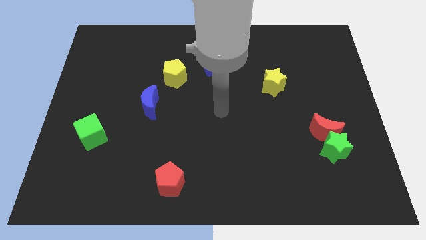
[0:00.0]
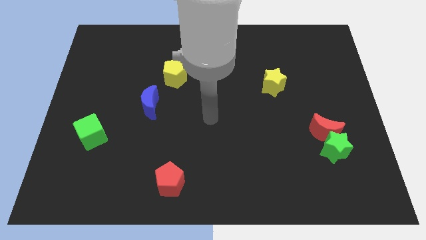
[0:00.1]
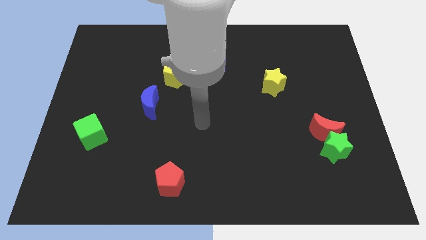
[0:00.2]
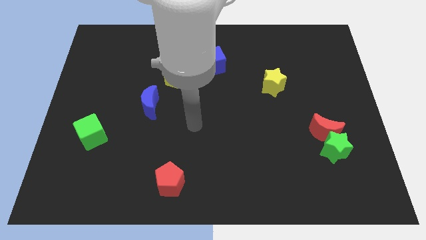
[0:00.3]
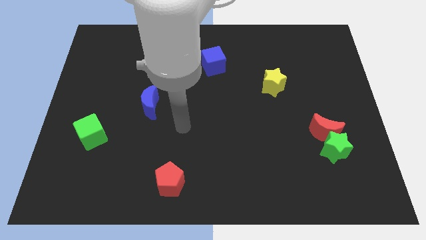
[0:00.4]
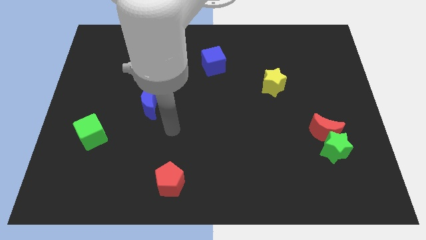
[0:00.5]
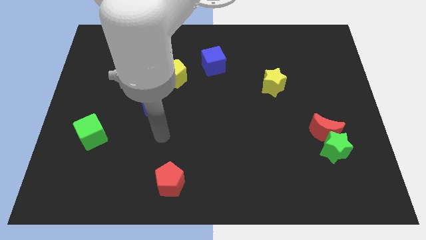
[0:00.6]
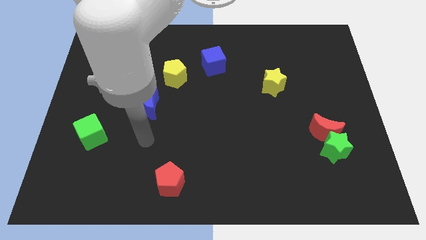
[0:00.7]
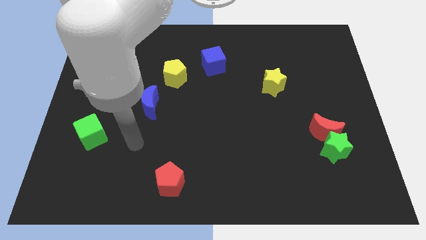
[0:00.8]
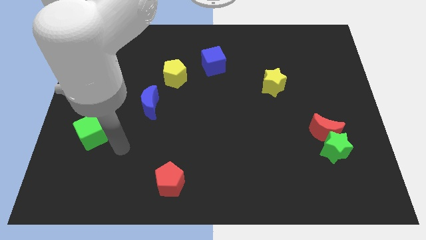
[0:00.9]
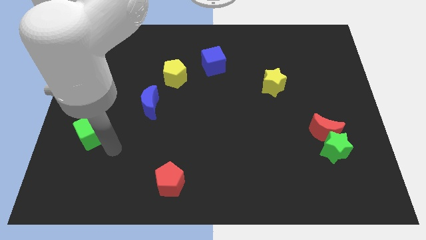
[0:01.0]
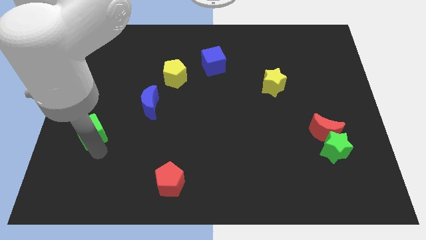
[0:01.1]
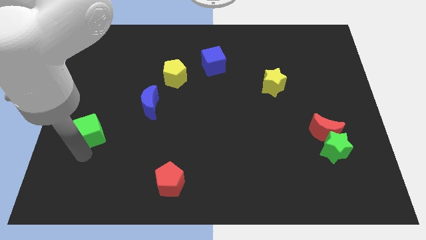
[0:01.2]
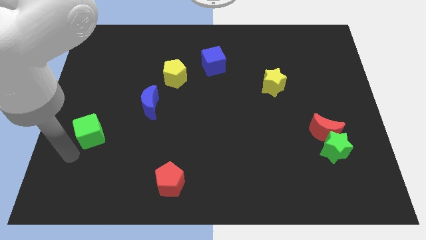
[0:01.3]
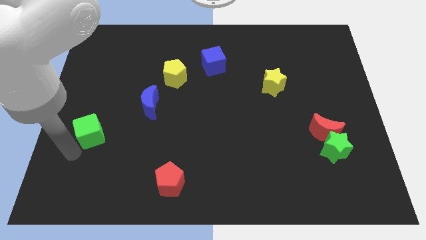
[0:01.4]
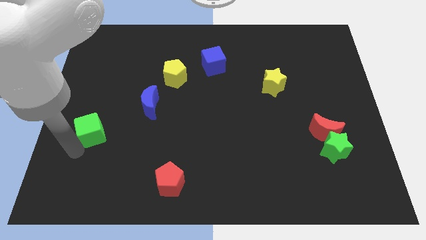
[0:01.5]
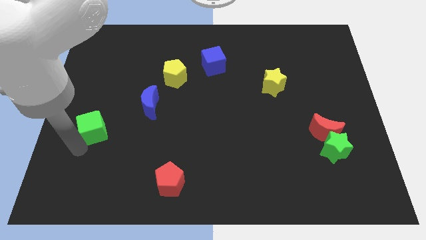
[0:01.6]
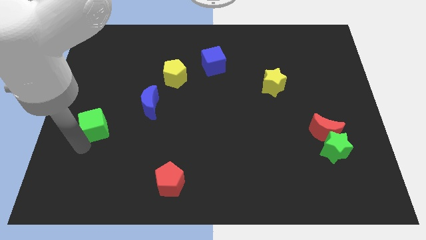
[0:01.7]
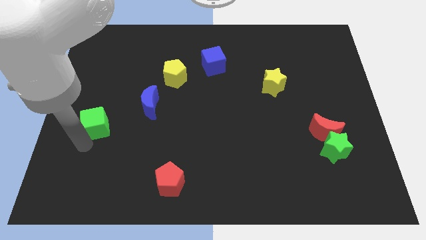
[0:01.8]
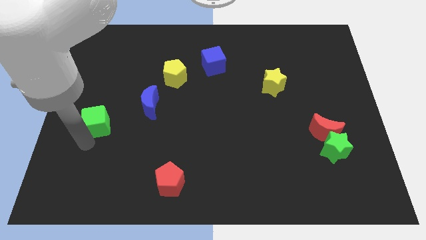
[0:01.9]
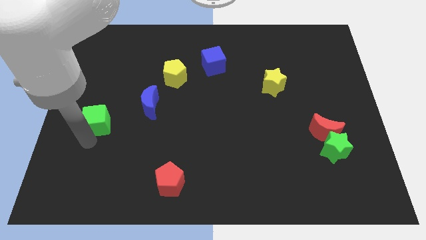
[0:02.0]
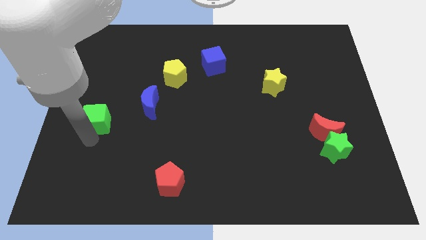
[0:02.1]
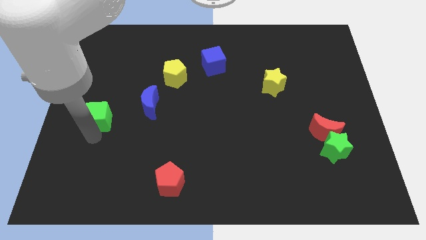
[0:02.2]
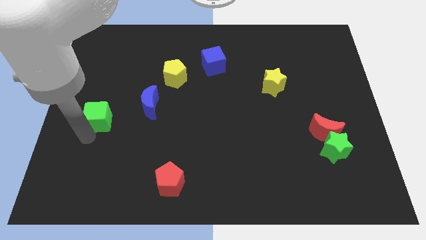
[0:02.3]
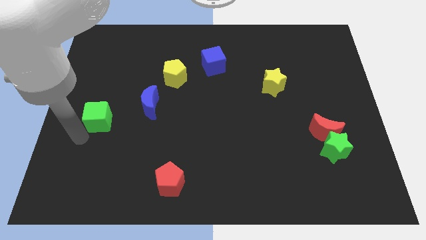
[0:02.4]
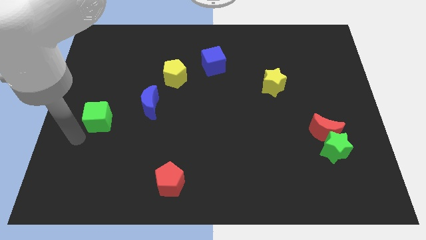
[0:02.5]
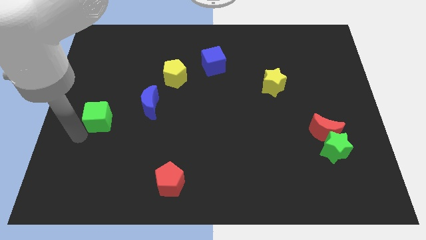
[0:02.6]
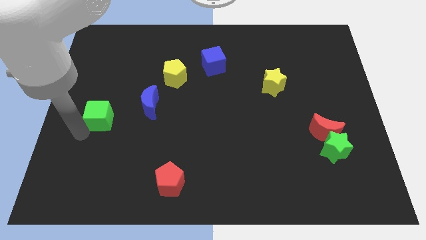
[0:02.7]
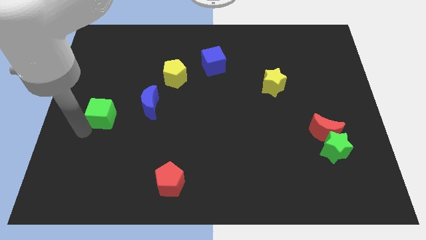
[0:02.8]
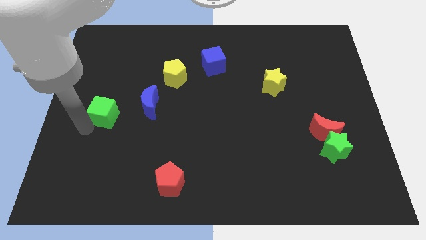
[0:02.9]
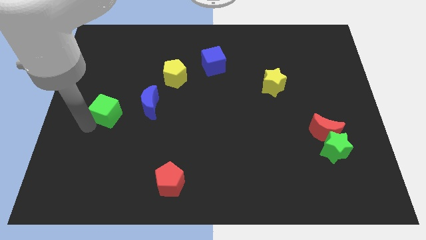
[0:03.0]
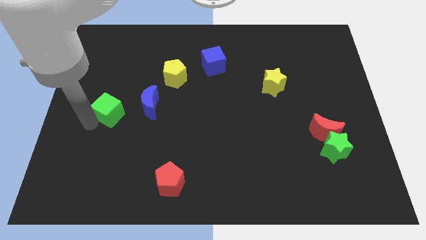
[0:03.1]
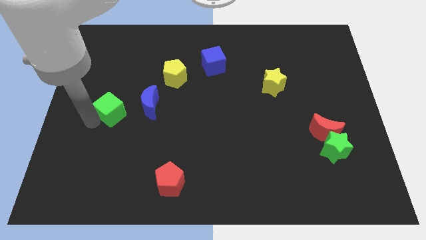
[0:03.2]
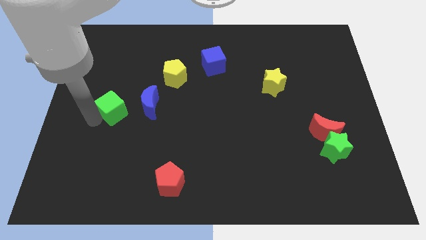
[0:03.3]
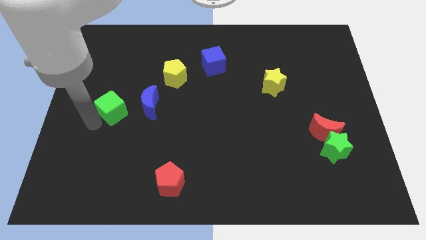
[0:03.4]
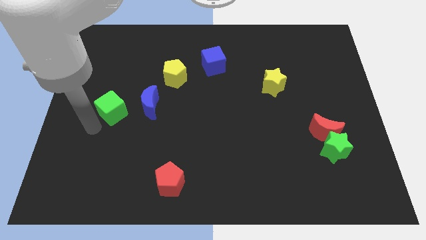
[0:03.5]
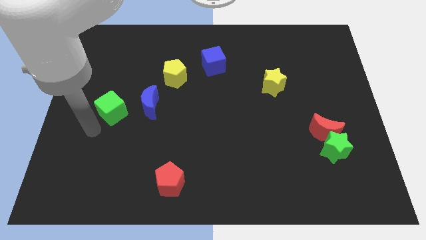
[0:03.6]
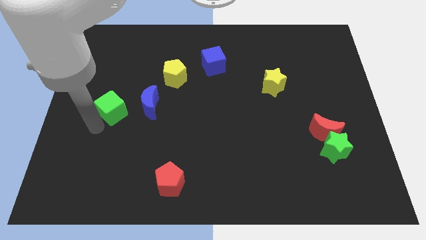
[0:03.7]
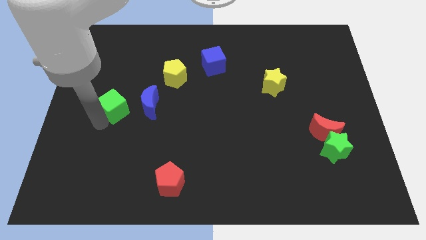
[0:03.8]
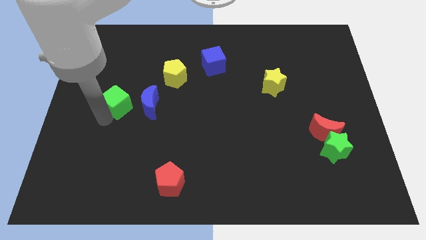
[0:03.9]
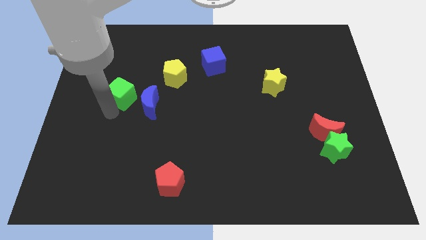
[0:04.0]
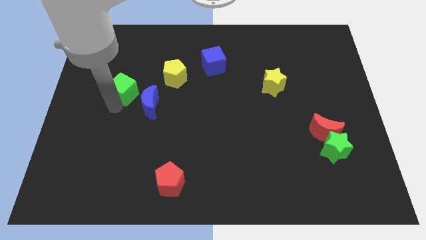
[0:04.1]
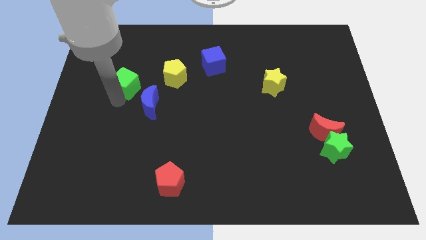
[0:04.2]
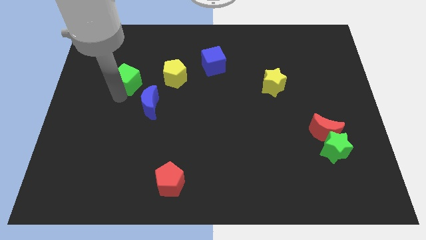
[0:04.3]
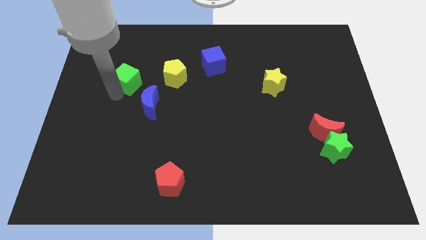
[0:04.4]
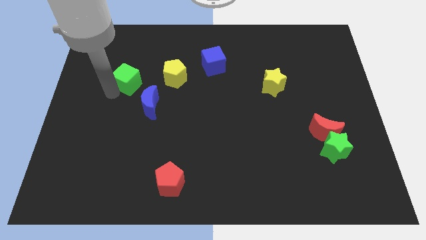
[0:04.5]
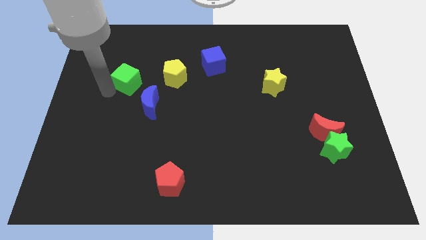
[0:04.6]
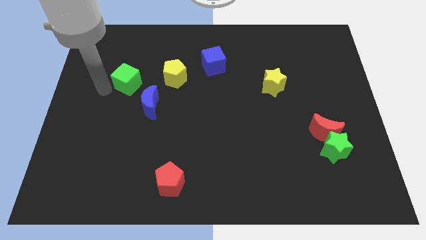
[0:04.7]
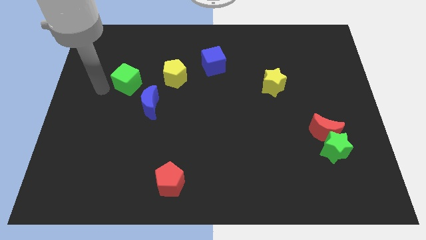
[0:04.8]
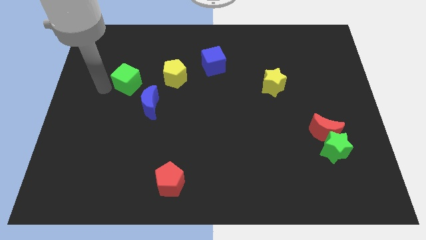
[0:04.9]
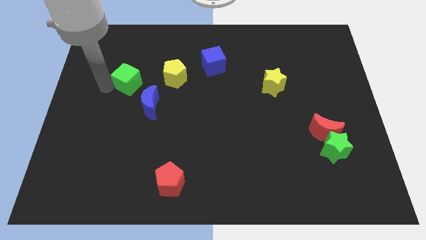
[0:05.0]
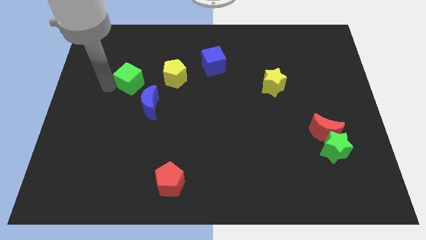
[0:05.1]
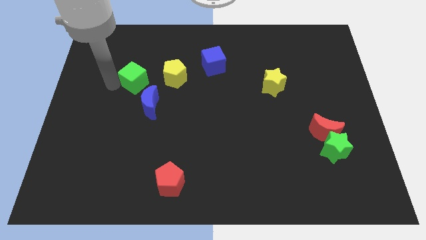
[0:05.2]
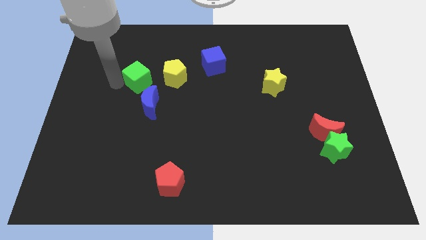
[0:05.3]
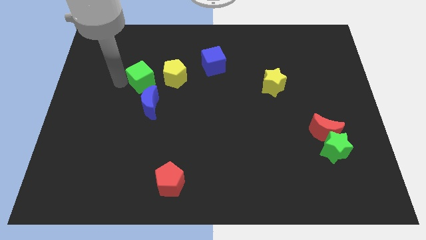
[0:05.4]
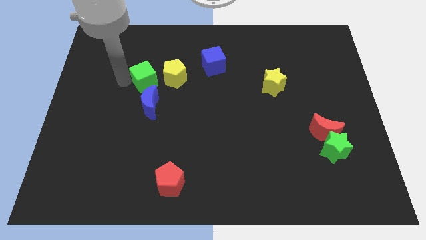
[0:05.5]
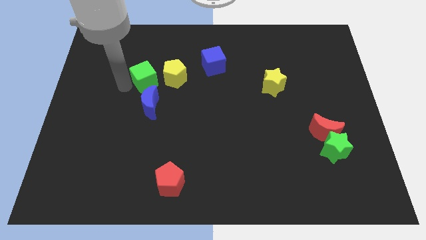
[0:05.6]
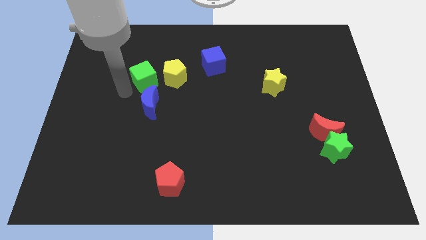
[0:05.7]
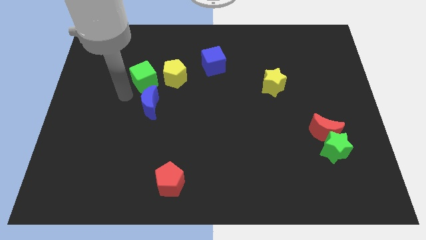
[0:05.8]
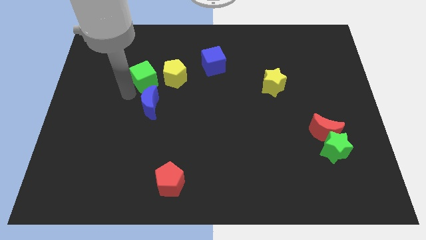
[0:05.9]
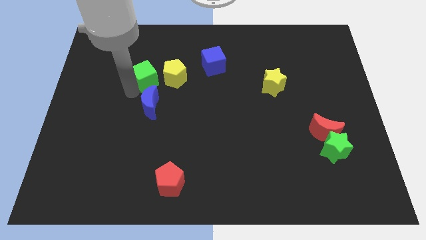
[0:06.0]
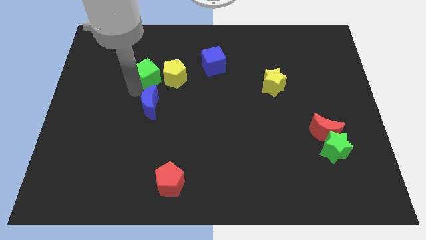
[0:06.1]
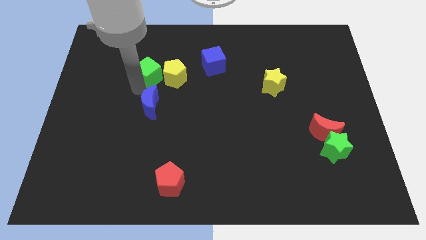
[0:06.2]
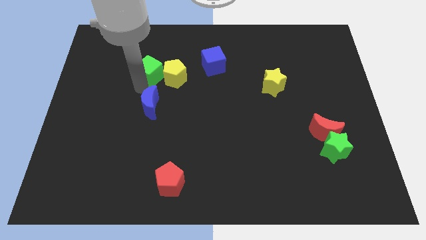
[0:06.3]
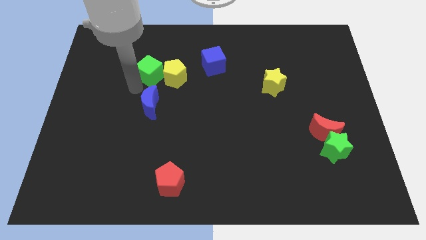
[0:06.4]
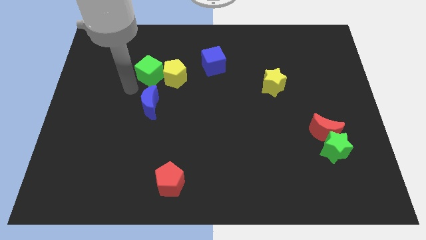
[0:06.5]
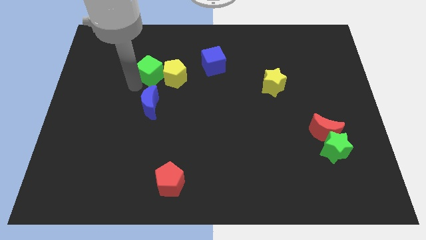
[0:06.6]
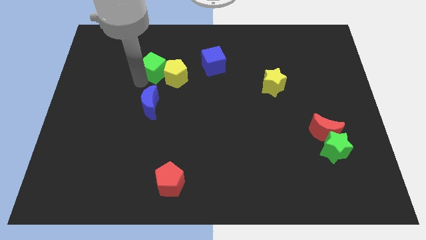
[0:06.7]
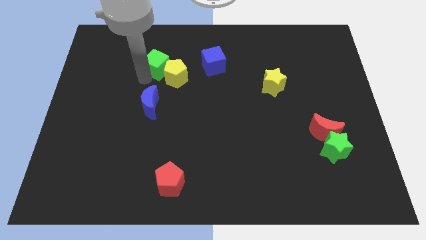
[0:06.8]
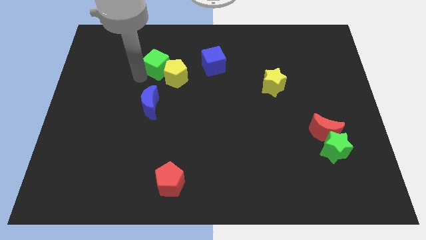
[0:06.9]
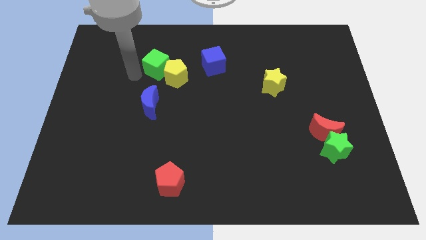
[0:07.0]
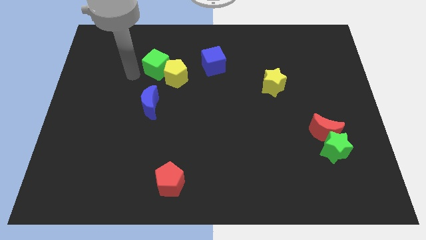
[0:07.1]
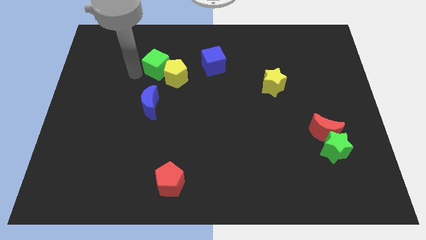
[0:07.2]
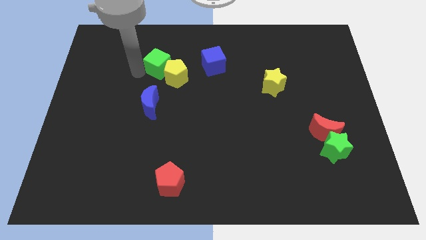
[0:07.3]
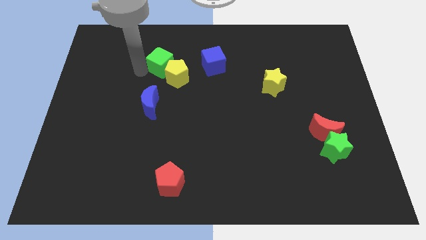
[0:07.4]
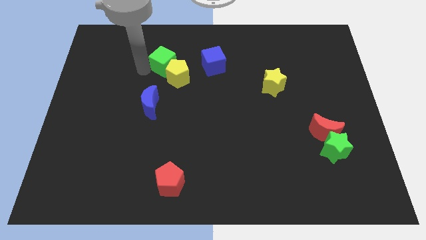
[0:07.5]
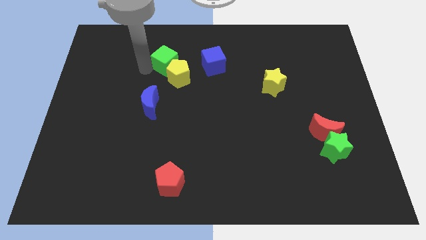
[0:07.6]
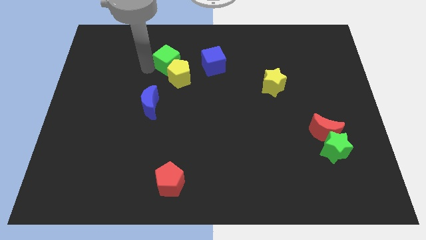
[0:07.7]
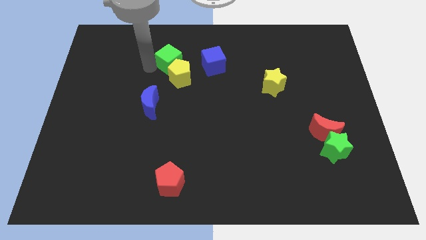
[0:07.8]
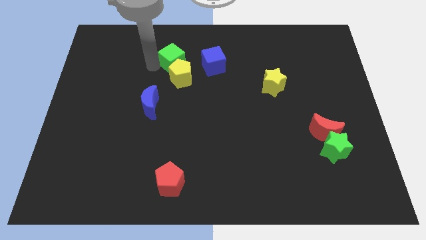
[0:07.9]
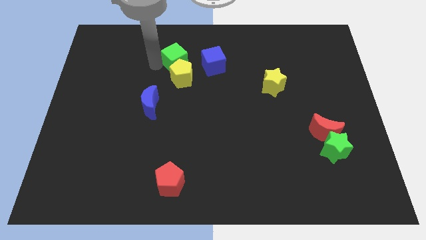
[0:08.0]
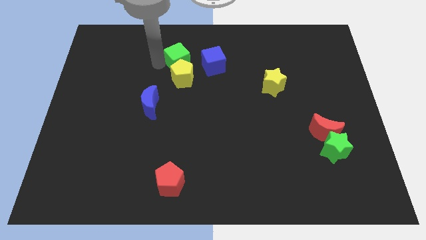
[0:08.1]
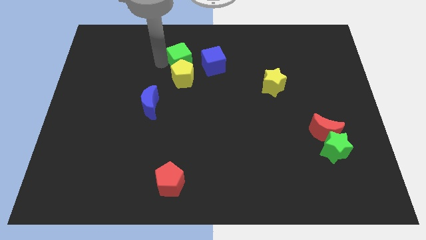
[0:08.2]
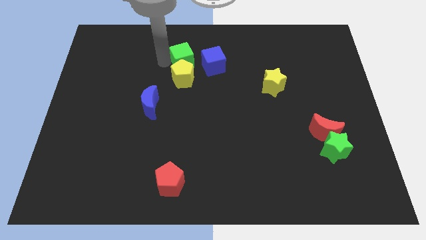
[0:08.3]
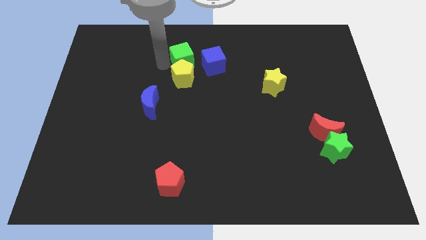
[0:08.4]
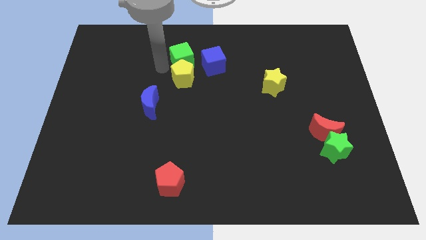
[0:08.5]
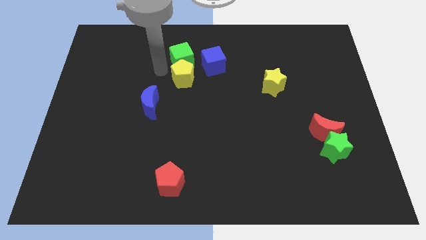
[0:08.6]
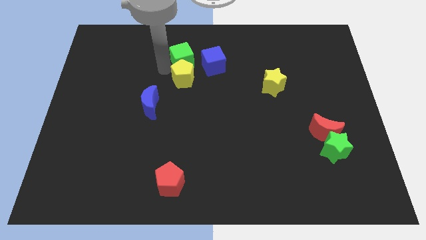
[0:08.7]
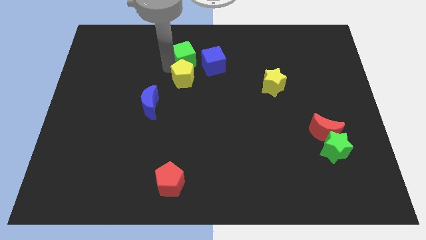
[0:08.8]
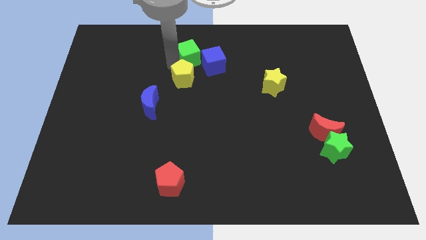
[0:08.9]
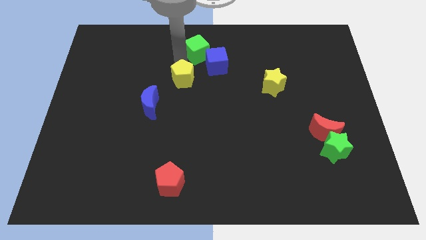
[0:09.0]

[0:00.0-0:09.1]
push the green cube to the towards your base
